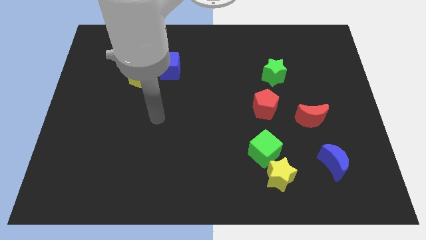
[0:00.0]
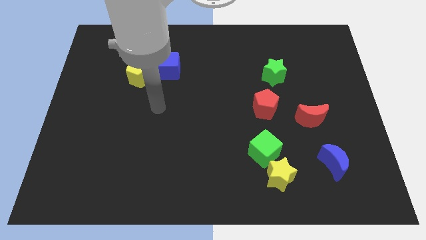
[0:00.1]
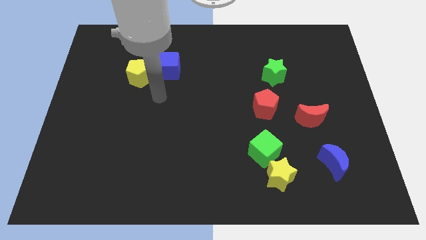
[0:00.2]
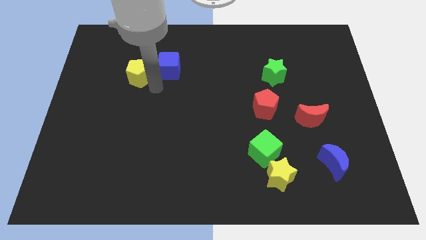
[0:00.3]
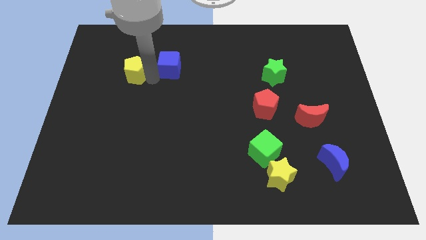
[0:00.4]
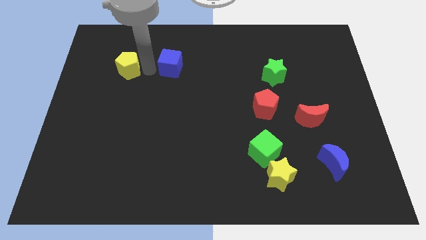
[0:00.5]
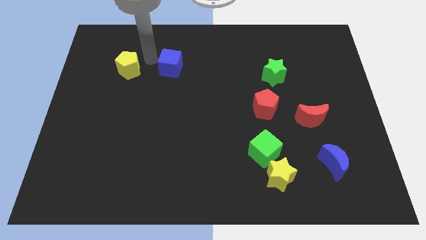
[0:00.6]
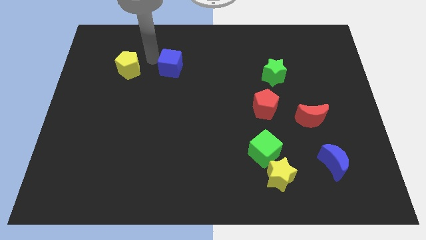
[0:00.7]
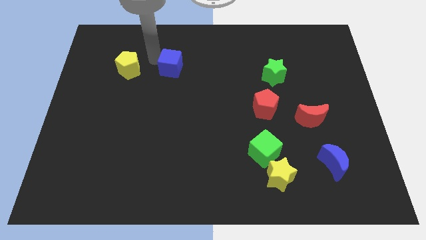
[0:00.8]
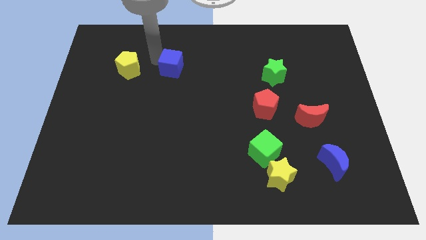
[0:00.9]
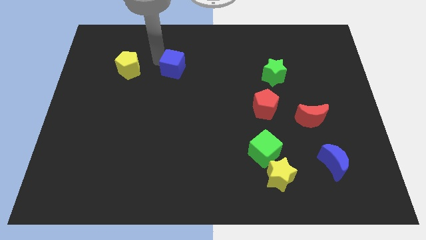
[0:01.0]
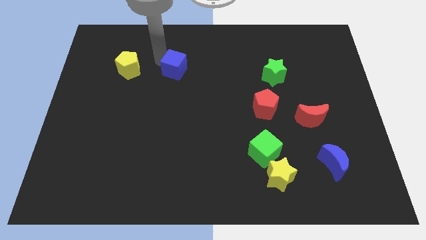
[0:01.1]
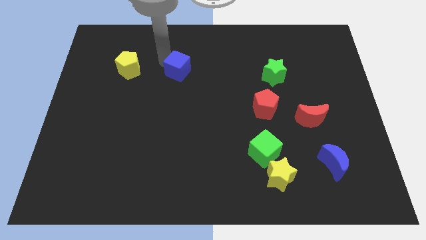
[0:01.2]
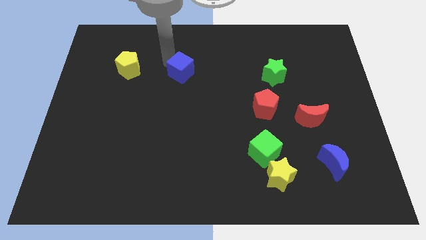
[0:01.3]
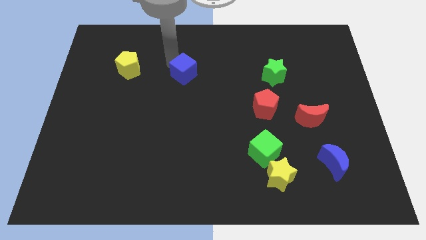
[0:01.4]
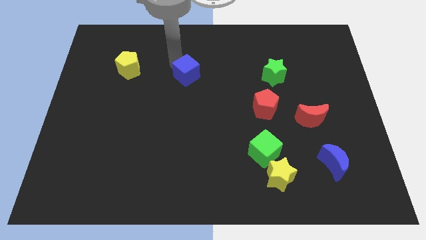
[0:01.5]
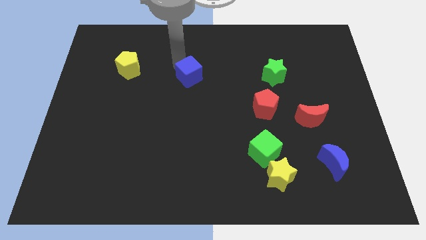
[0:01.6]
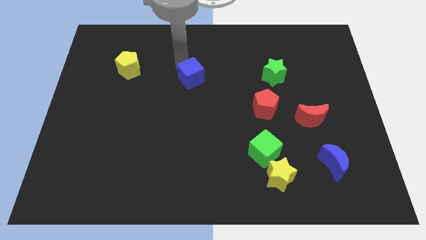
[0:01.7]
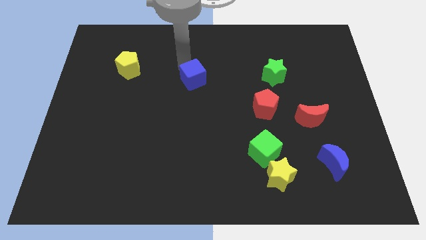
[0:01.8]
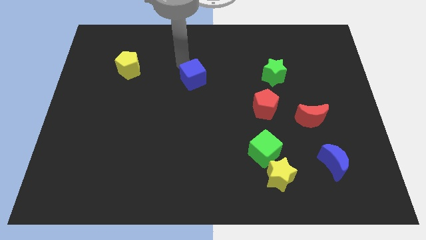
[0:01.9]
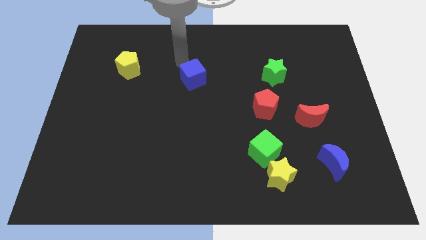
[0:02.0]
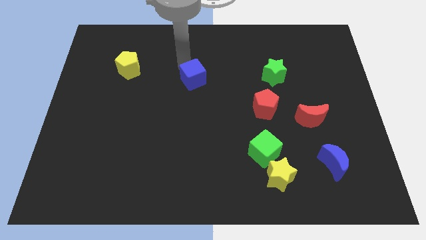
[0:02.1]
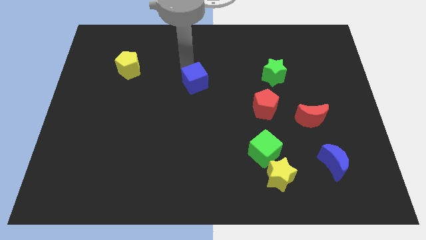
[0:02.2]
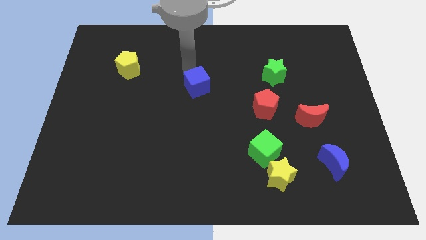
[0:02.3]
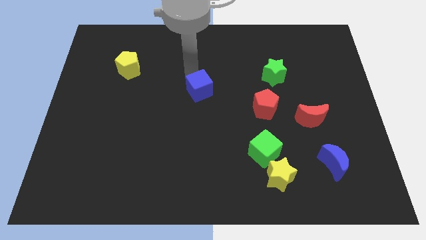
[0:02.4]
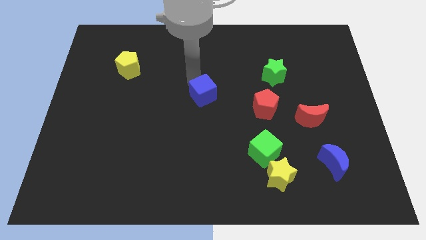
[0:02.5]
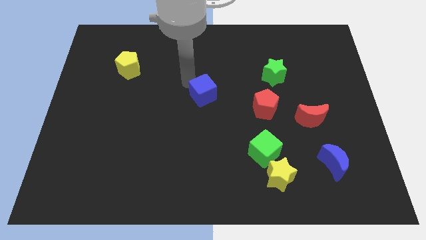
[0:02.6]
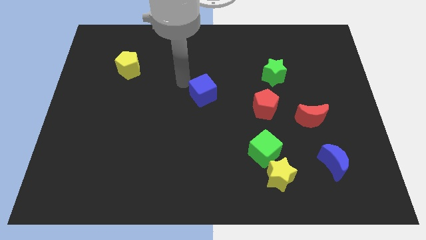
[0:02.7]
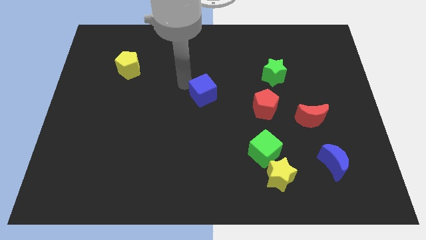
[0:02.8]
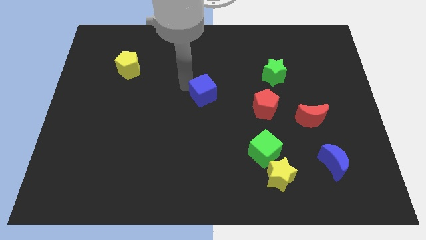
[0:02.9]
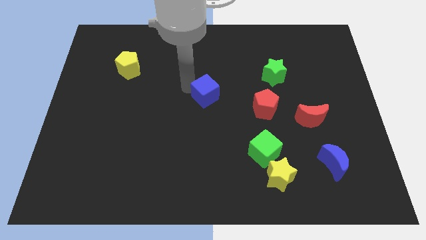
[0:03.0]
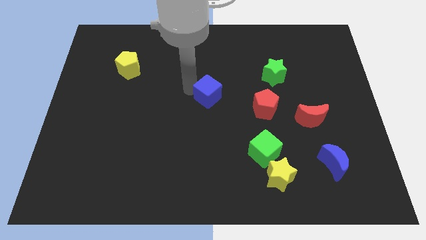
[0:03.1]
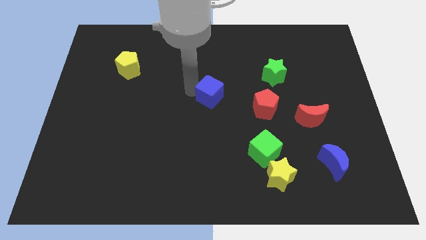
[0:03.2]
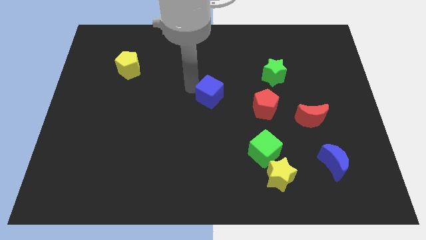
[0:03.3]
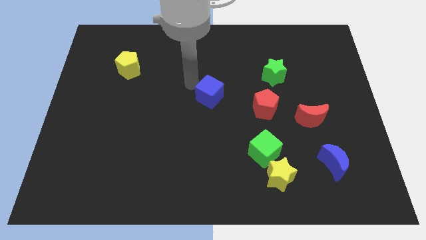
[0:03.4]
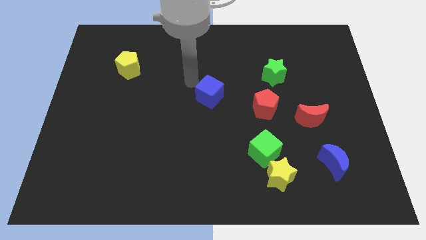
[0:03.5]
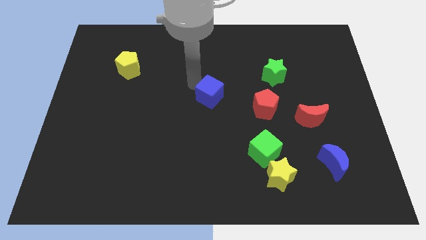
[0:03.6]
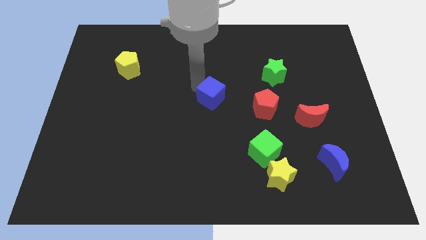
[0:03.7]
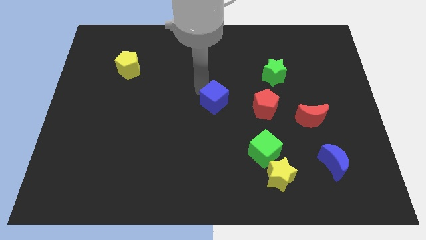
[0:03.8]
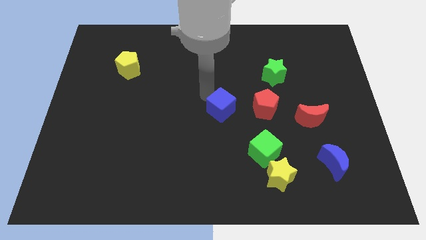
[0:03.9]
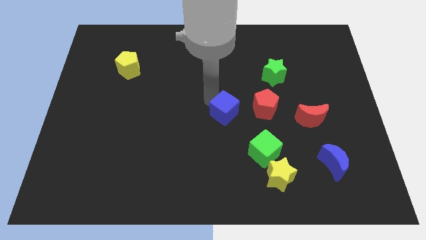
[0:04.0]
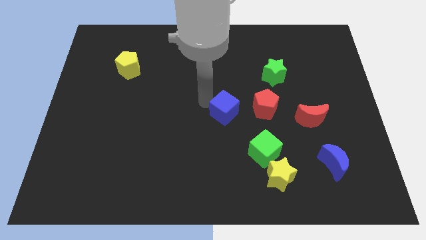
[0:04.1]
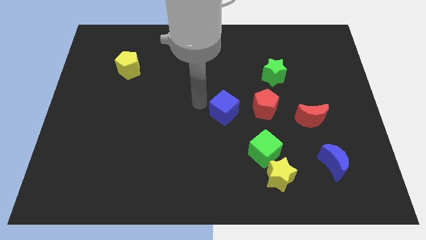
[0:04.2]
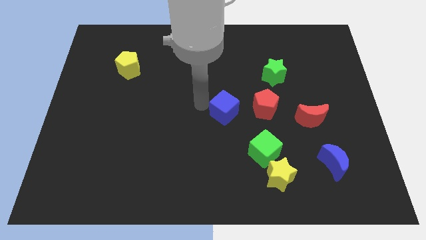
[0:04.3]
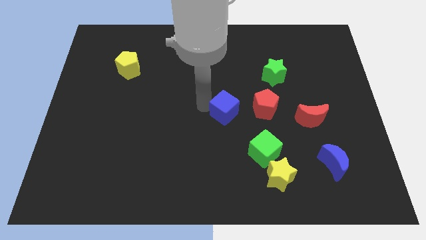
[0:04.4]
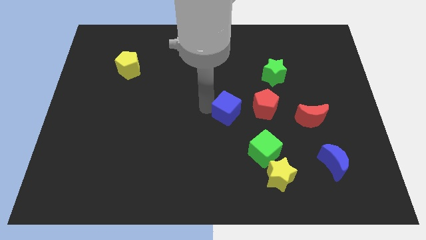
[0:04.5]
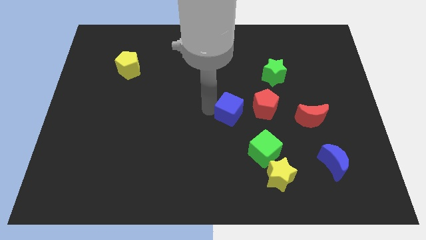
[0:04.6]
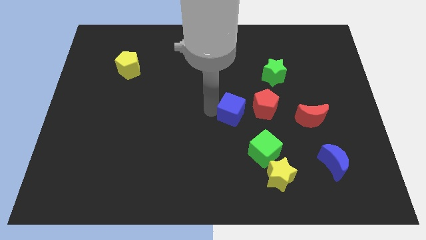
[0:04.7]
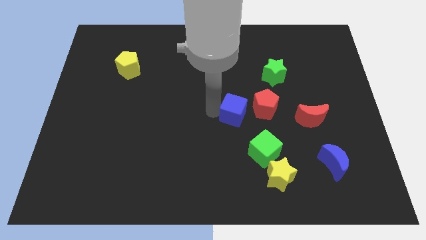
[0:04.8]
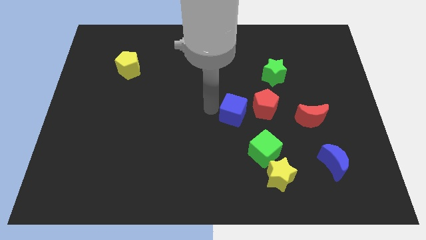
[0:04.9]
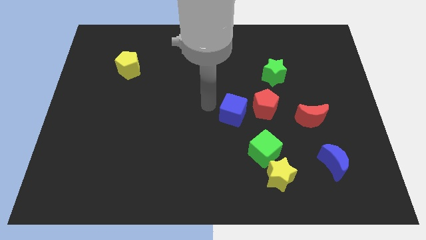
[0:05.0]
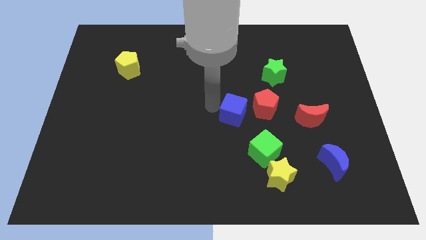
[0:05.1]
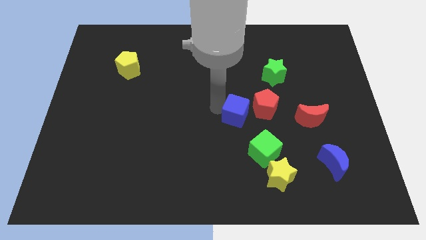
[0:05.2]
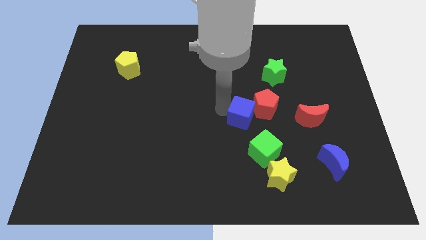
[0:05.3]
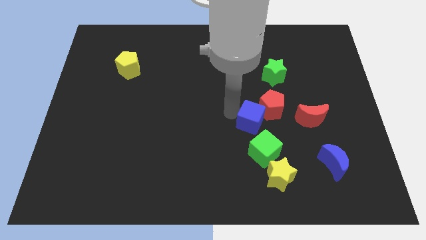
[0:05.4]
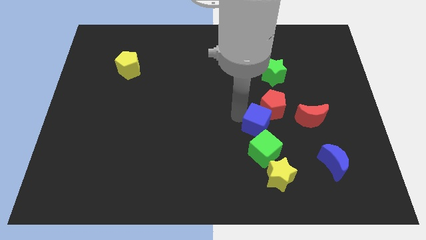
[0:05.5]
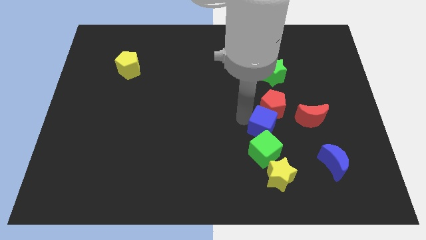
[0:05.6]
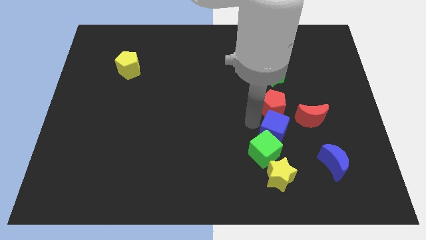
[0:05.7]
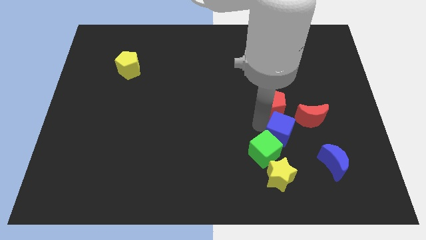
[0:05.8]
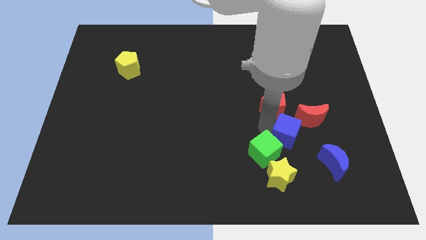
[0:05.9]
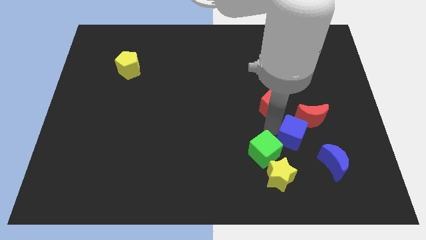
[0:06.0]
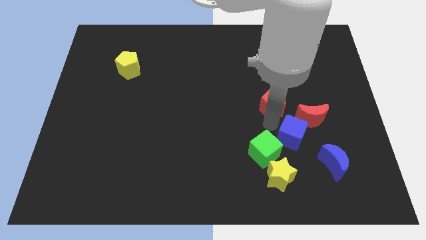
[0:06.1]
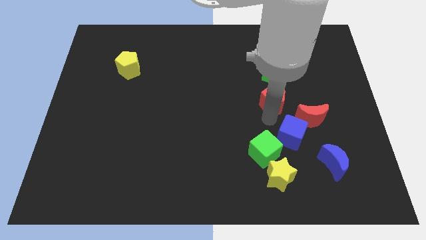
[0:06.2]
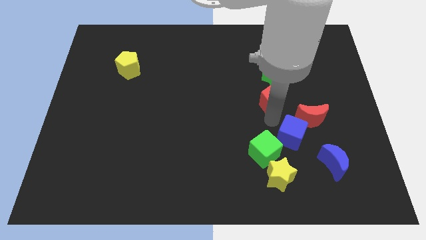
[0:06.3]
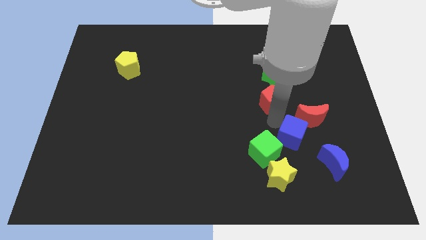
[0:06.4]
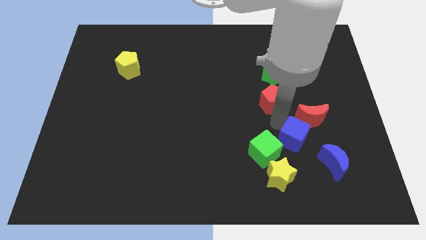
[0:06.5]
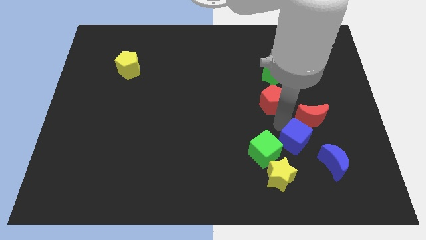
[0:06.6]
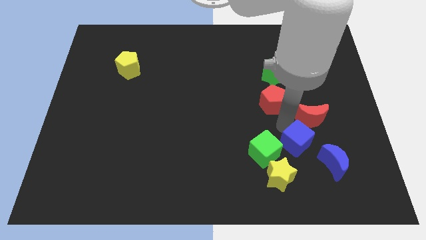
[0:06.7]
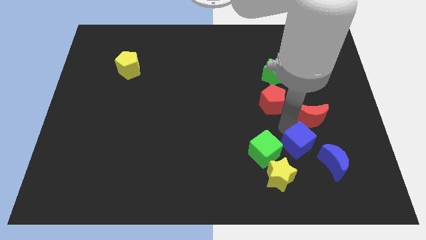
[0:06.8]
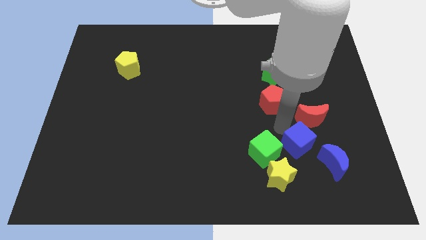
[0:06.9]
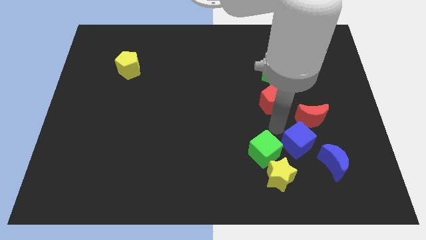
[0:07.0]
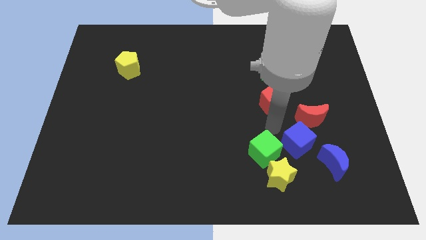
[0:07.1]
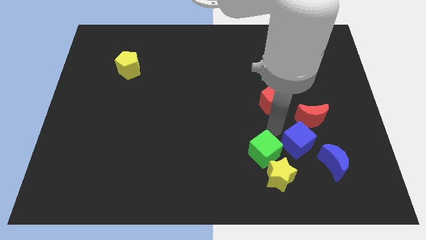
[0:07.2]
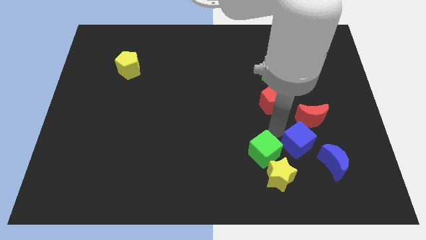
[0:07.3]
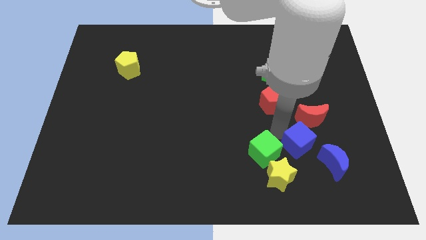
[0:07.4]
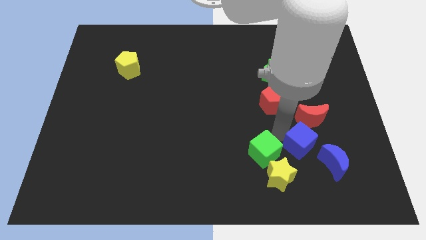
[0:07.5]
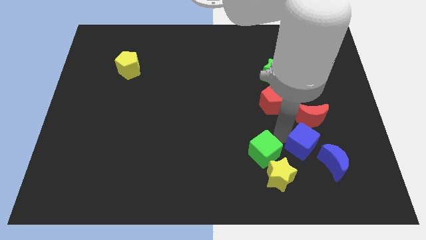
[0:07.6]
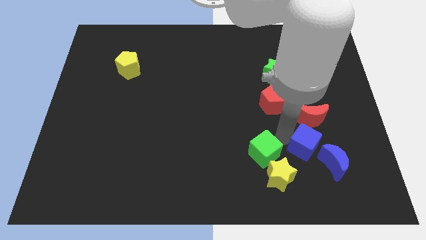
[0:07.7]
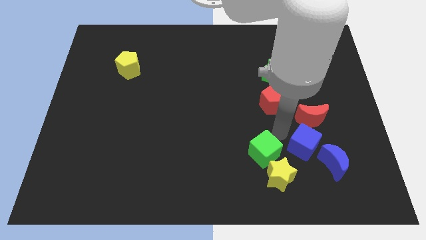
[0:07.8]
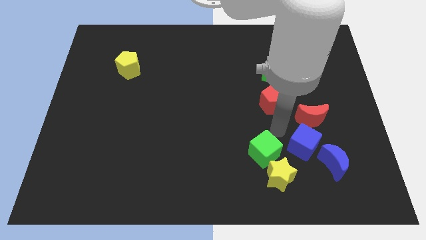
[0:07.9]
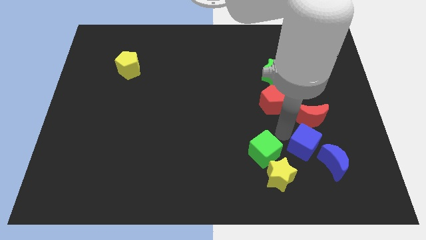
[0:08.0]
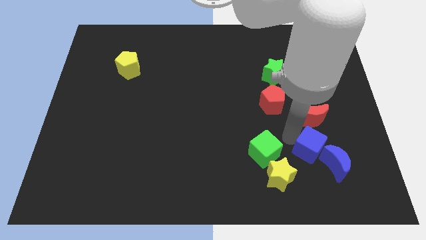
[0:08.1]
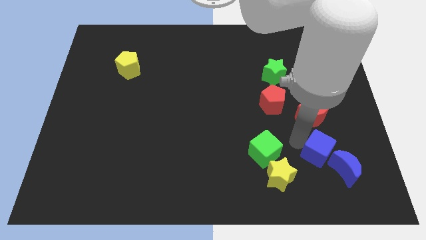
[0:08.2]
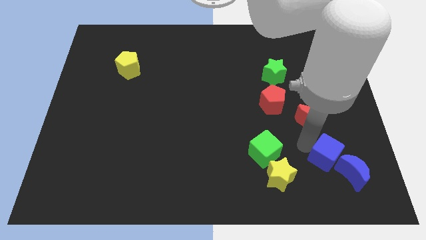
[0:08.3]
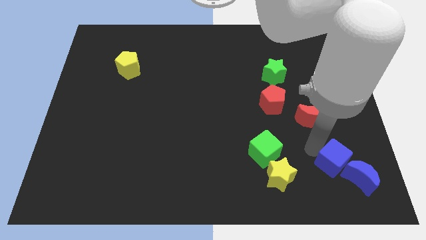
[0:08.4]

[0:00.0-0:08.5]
push the blue cube next to the blue moon
